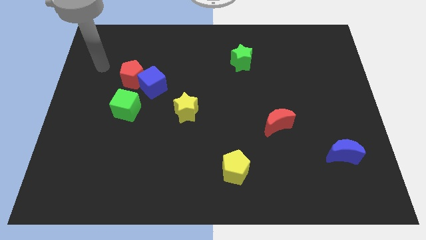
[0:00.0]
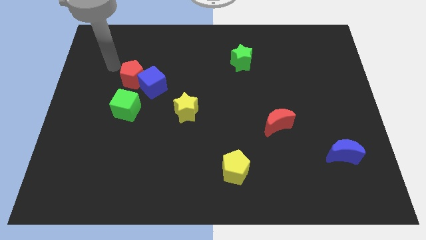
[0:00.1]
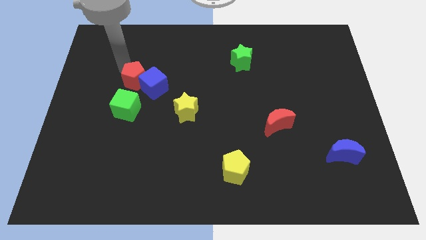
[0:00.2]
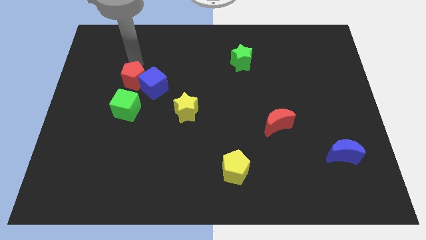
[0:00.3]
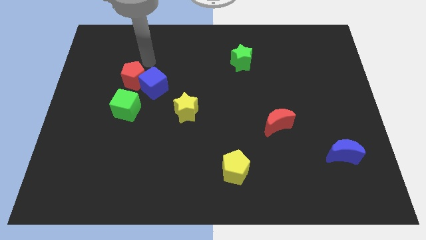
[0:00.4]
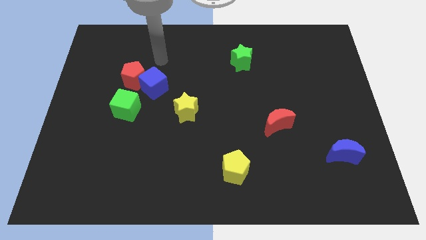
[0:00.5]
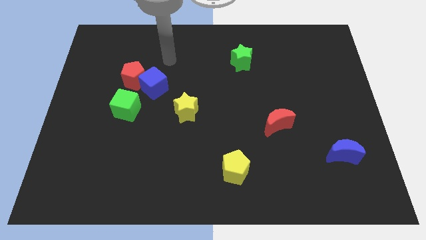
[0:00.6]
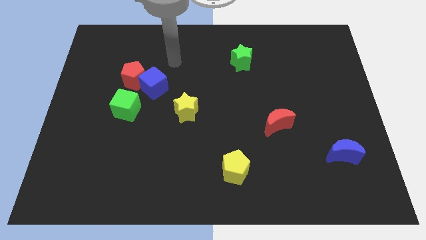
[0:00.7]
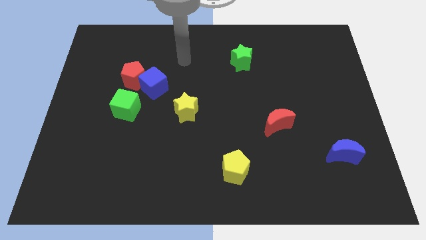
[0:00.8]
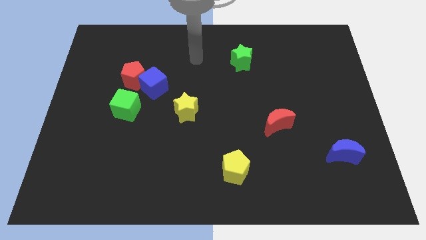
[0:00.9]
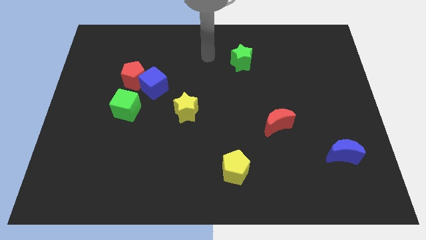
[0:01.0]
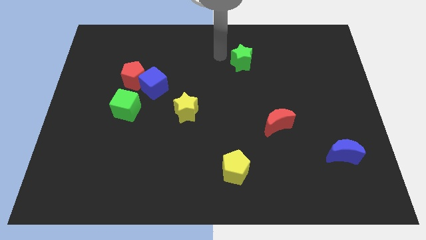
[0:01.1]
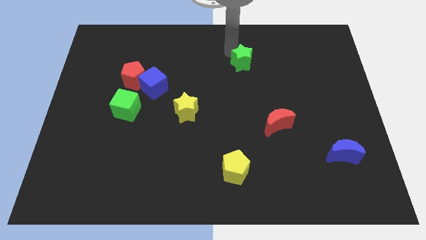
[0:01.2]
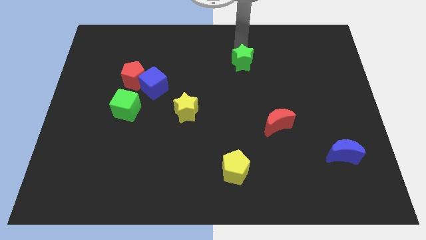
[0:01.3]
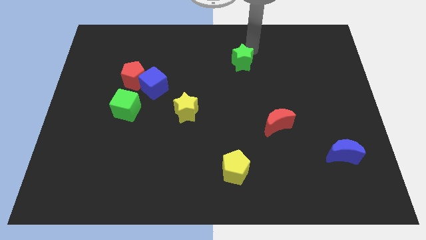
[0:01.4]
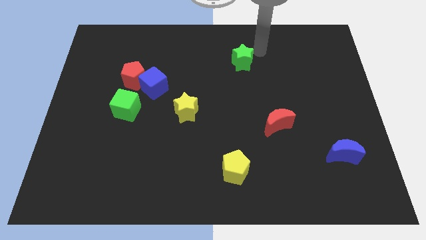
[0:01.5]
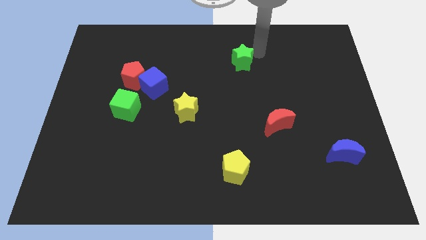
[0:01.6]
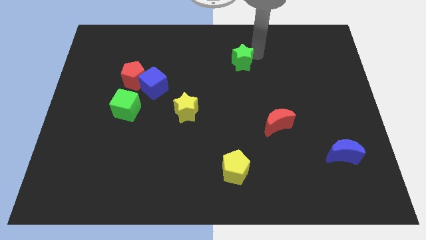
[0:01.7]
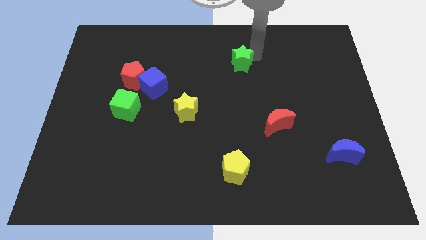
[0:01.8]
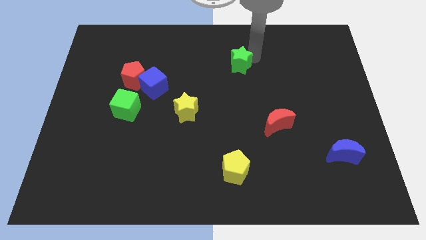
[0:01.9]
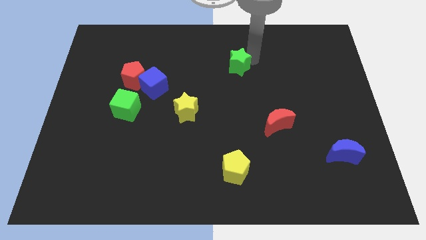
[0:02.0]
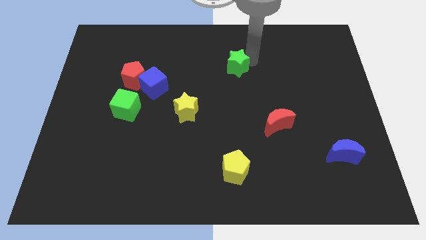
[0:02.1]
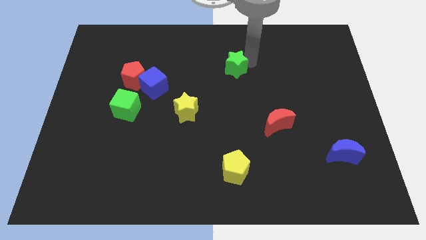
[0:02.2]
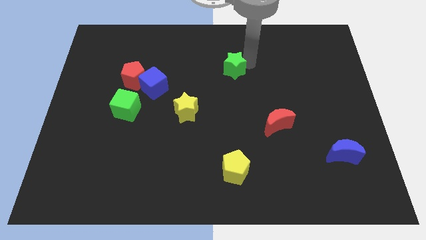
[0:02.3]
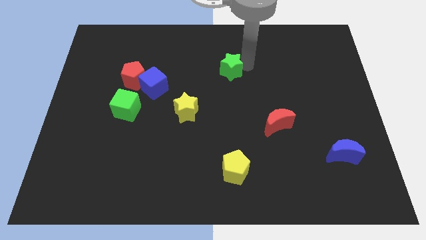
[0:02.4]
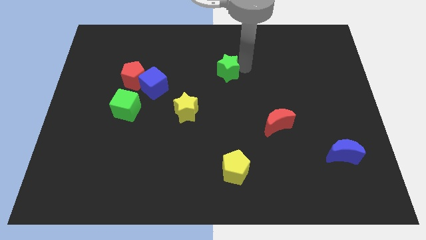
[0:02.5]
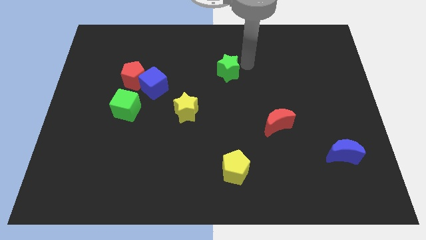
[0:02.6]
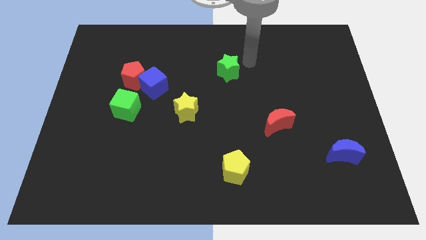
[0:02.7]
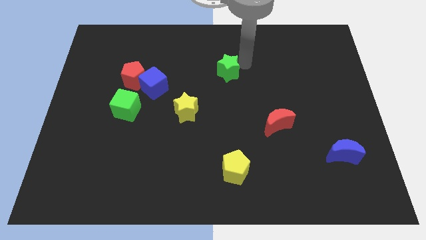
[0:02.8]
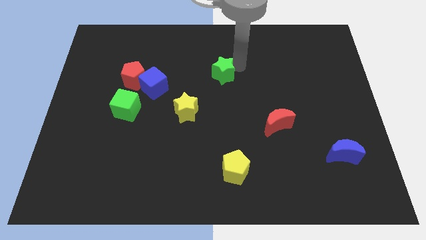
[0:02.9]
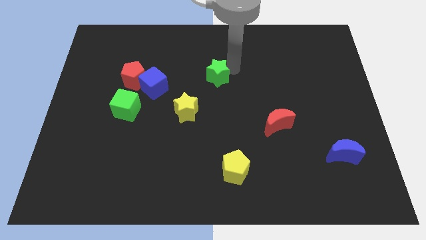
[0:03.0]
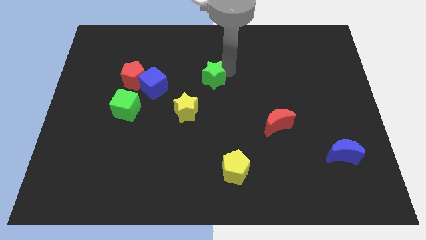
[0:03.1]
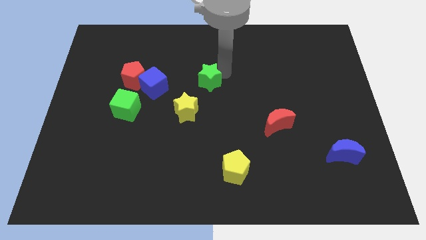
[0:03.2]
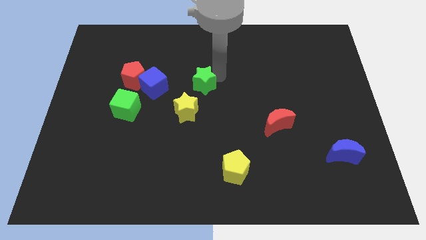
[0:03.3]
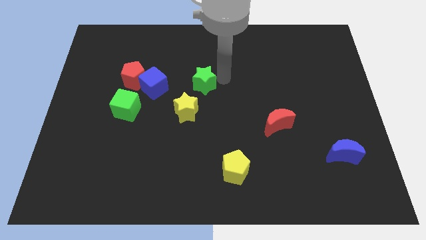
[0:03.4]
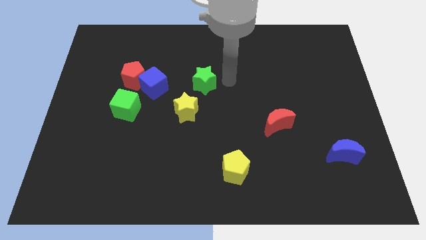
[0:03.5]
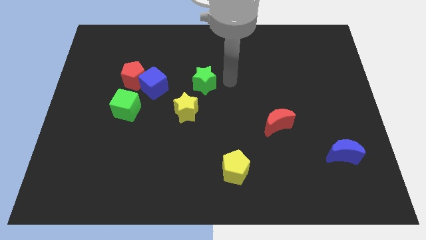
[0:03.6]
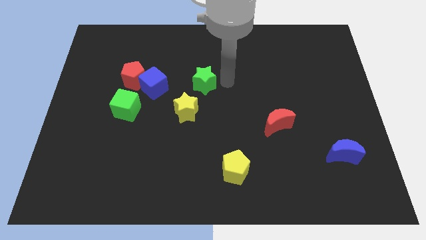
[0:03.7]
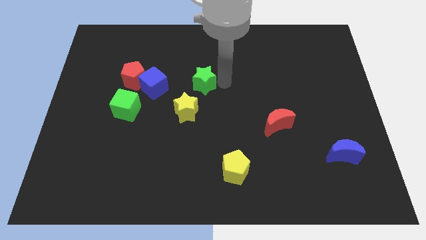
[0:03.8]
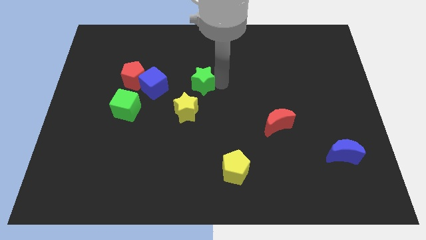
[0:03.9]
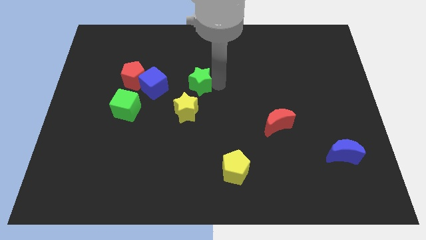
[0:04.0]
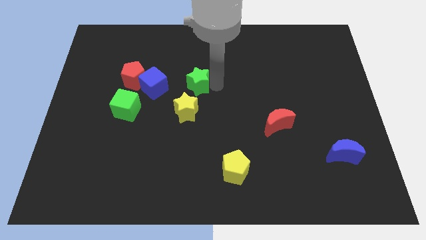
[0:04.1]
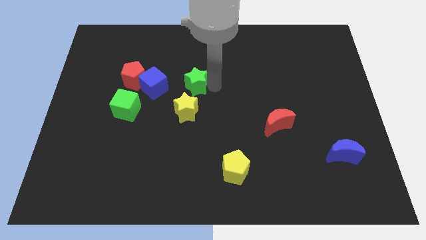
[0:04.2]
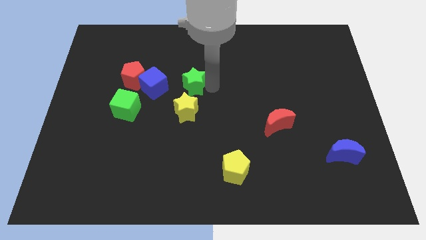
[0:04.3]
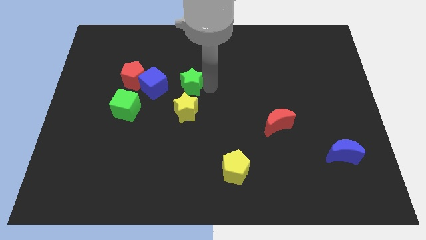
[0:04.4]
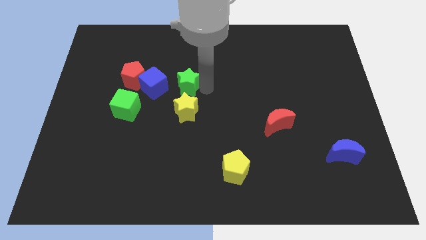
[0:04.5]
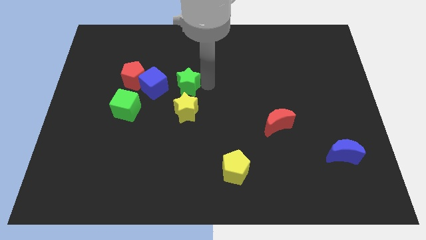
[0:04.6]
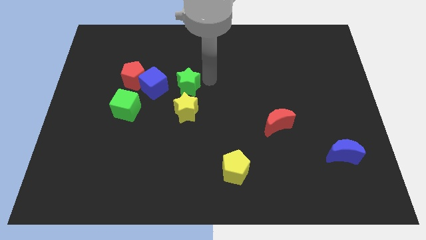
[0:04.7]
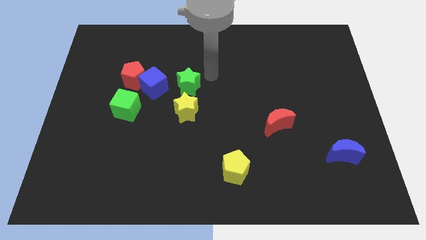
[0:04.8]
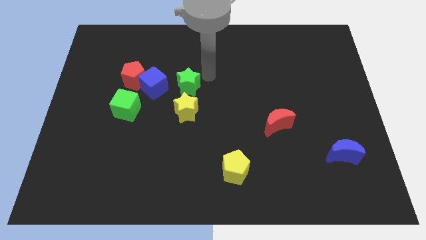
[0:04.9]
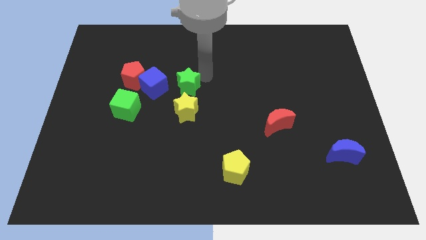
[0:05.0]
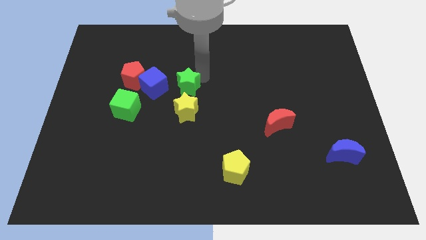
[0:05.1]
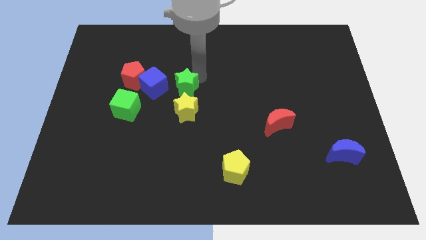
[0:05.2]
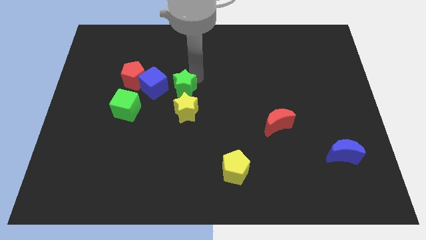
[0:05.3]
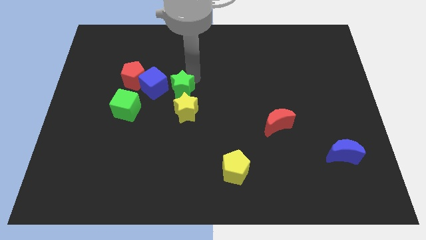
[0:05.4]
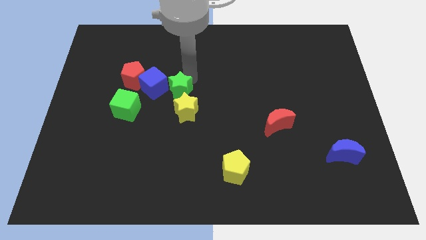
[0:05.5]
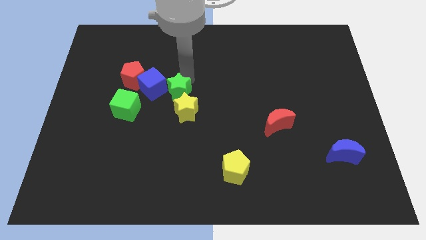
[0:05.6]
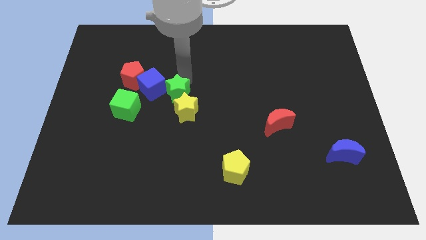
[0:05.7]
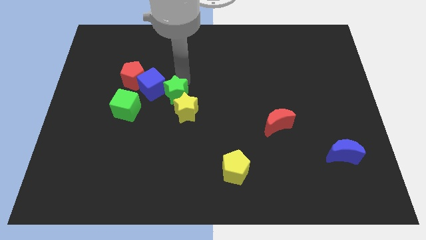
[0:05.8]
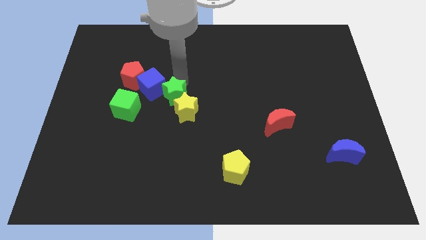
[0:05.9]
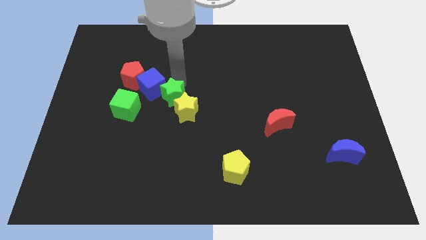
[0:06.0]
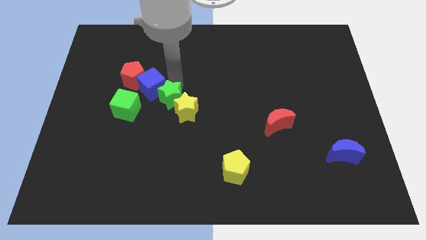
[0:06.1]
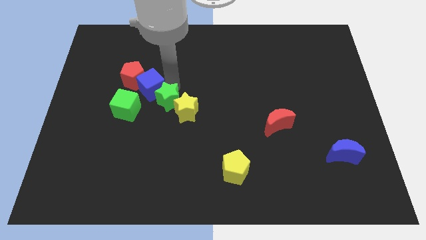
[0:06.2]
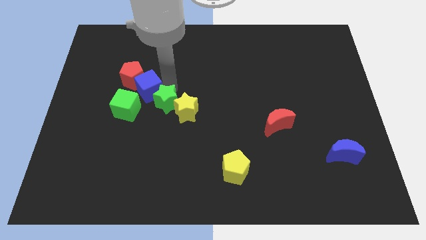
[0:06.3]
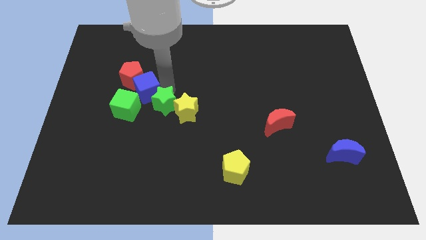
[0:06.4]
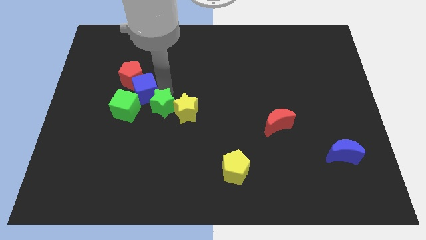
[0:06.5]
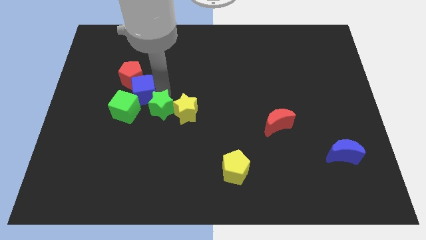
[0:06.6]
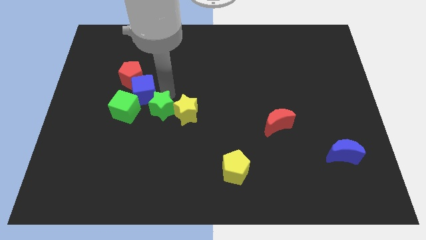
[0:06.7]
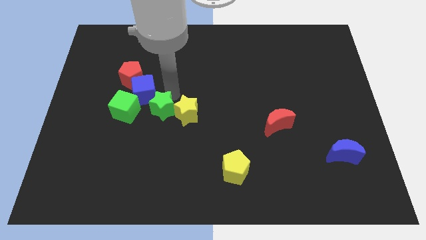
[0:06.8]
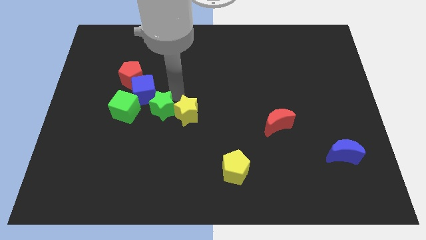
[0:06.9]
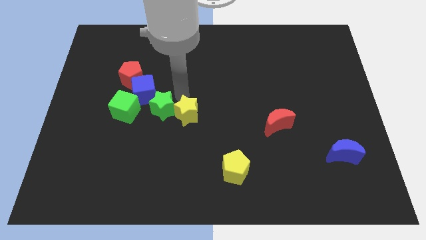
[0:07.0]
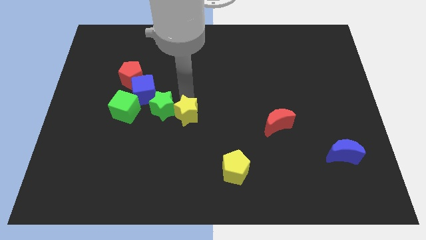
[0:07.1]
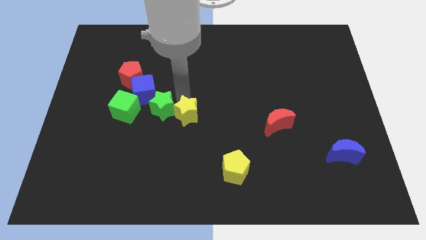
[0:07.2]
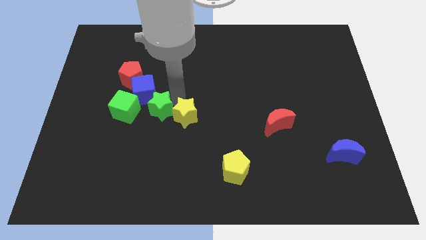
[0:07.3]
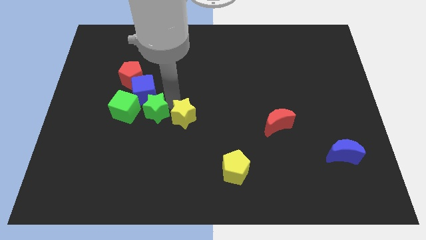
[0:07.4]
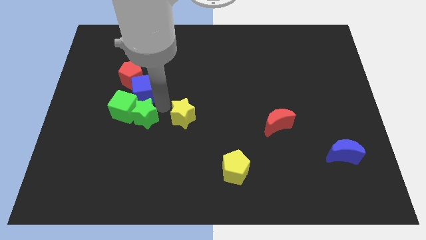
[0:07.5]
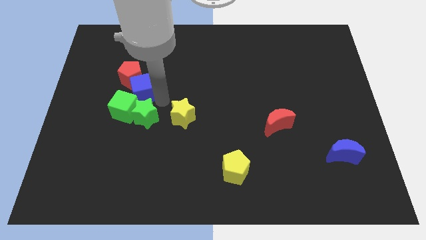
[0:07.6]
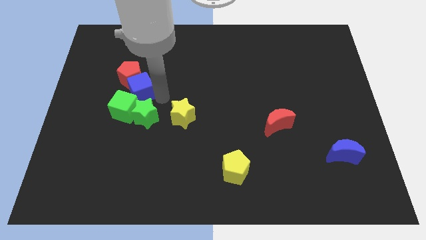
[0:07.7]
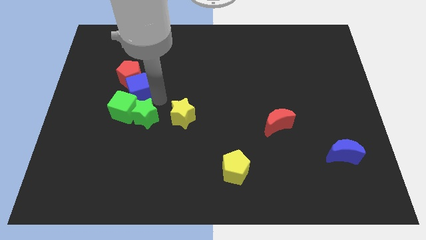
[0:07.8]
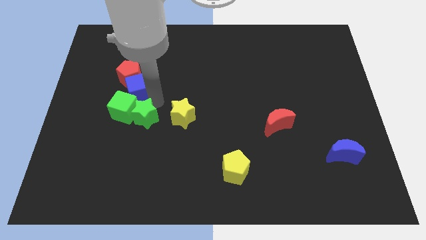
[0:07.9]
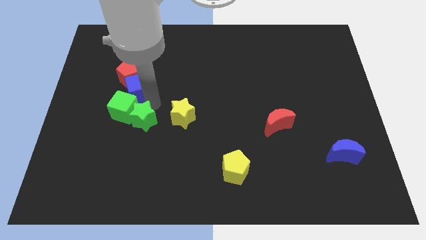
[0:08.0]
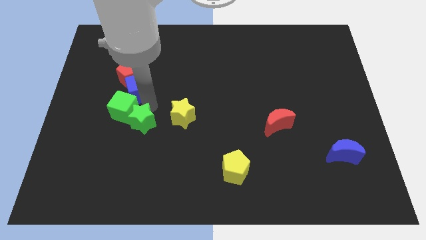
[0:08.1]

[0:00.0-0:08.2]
move the green star below the green cube
